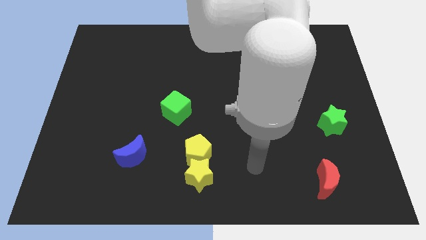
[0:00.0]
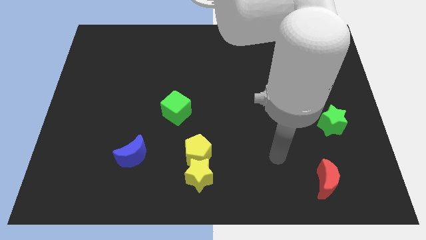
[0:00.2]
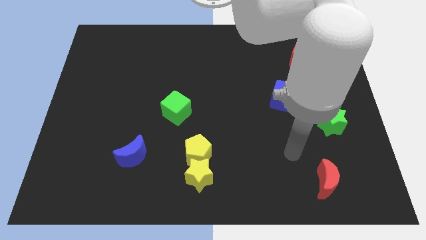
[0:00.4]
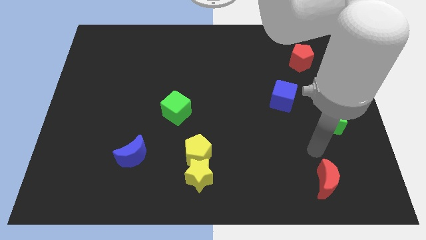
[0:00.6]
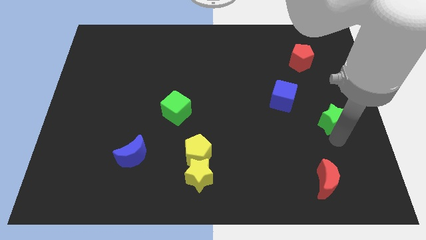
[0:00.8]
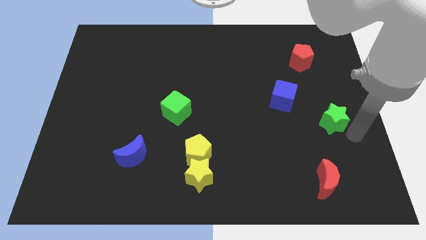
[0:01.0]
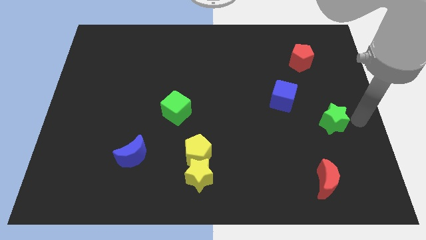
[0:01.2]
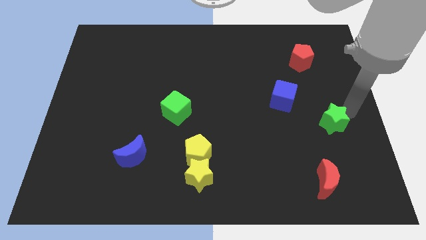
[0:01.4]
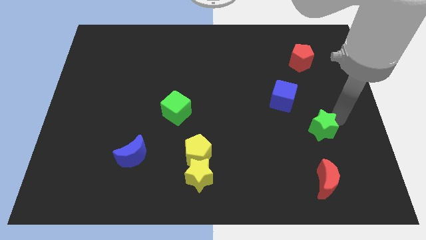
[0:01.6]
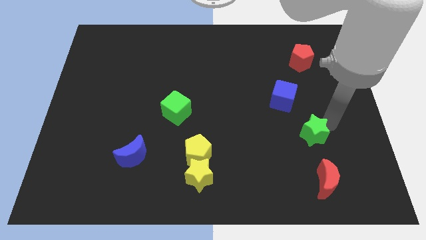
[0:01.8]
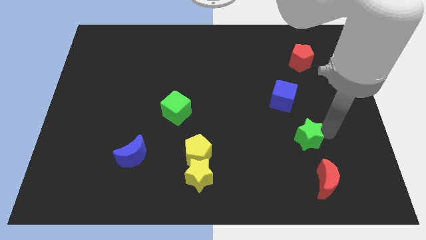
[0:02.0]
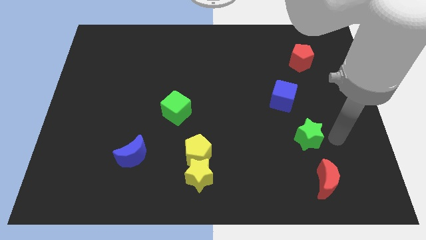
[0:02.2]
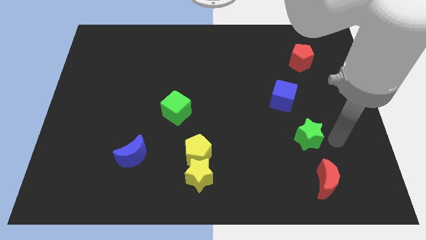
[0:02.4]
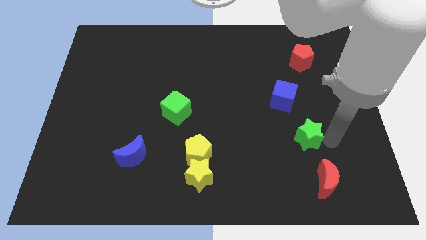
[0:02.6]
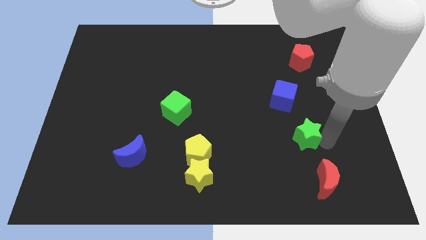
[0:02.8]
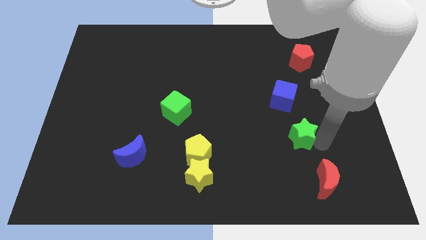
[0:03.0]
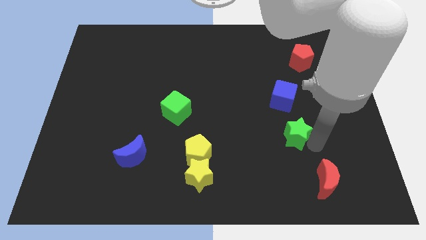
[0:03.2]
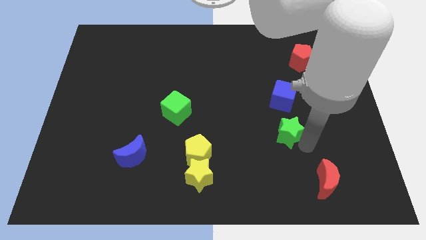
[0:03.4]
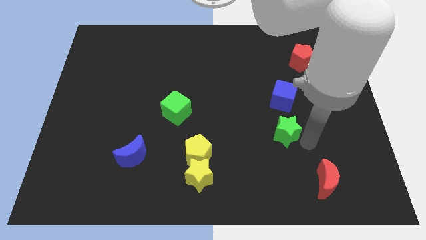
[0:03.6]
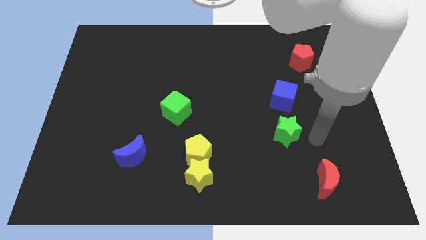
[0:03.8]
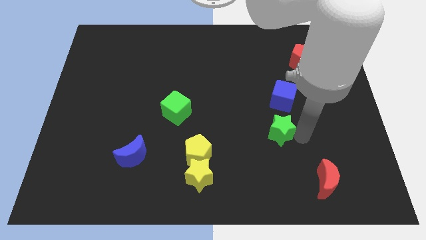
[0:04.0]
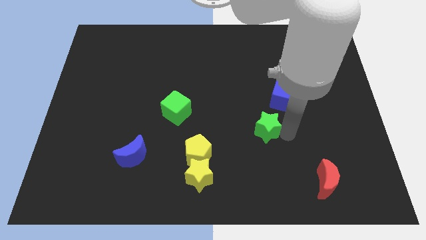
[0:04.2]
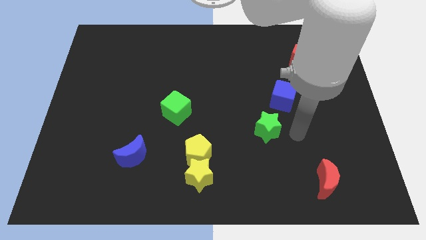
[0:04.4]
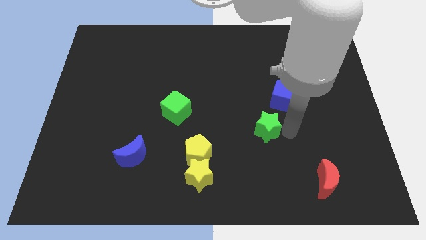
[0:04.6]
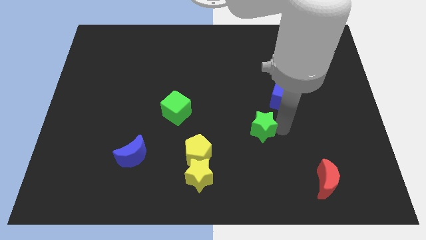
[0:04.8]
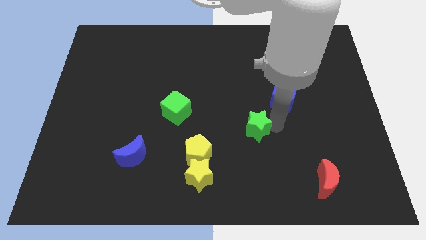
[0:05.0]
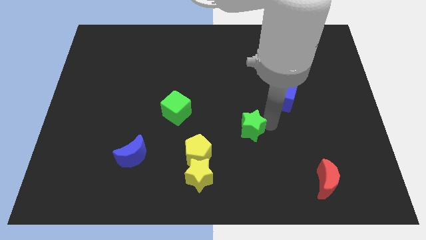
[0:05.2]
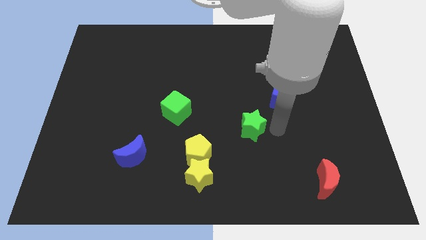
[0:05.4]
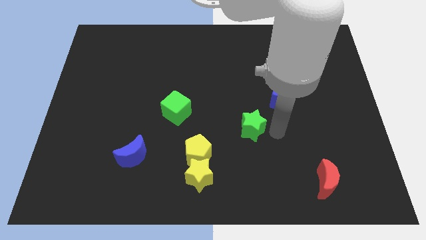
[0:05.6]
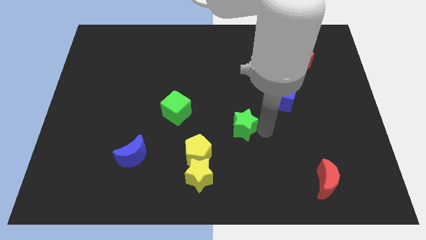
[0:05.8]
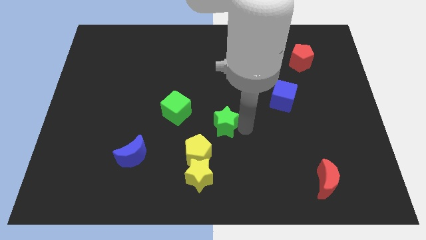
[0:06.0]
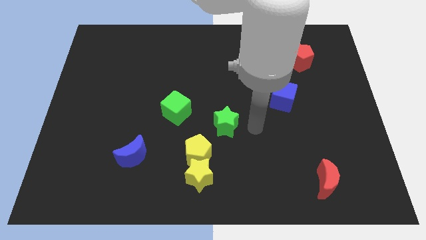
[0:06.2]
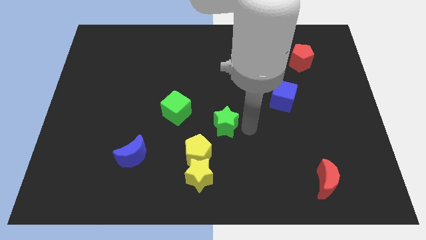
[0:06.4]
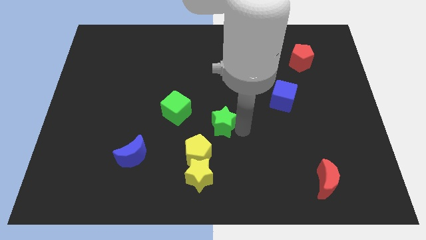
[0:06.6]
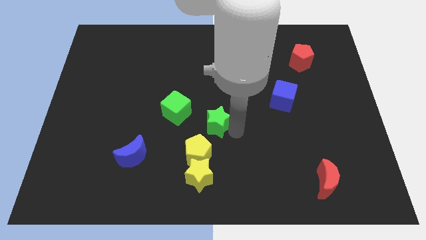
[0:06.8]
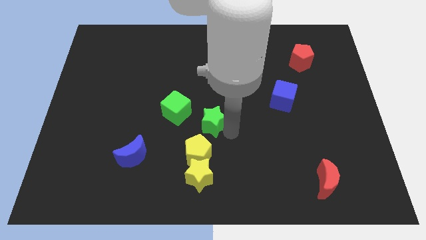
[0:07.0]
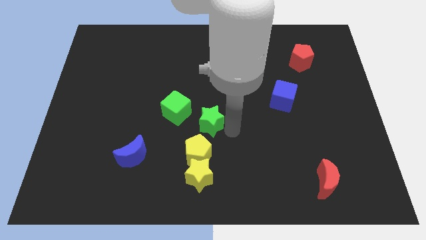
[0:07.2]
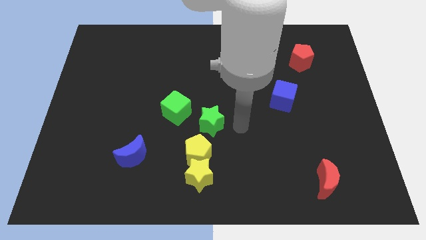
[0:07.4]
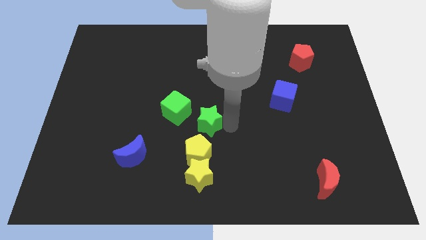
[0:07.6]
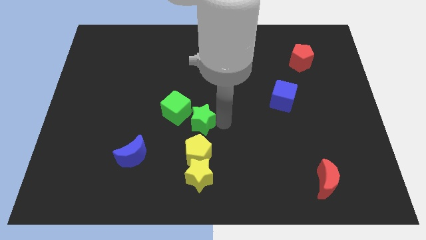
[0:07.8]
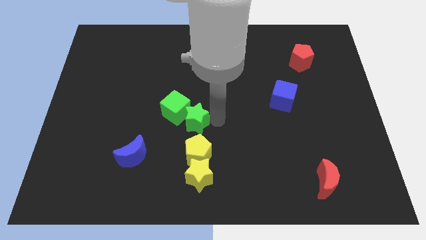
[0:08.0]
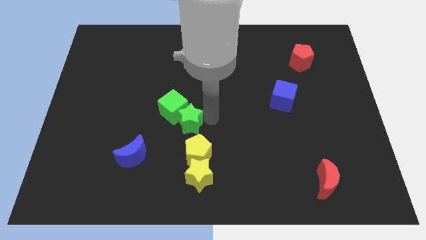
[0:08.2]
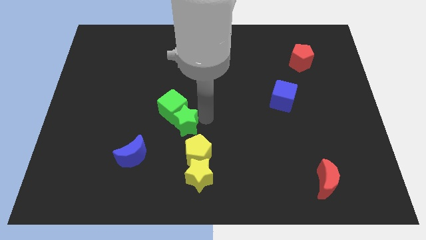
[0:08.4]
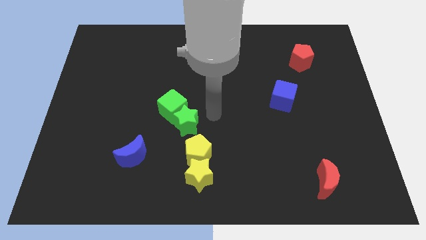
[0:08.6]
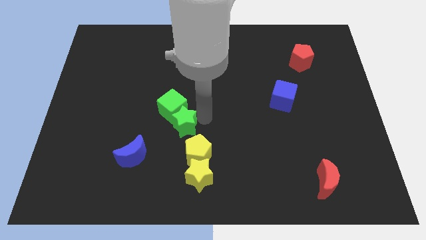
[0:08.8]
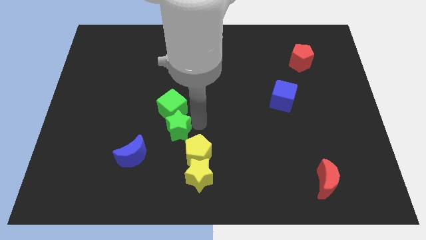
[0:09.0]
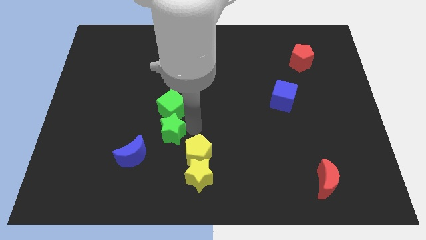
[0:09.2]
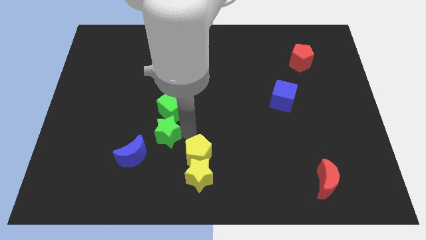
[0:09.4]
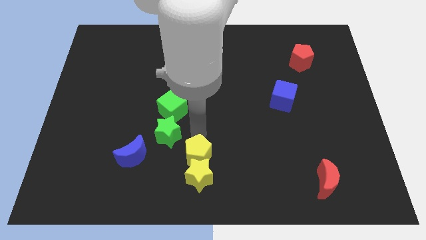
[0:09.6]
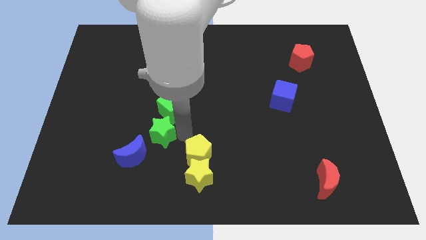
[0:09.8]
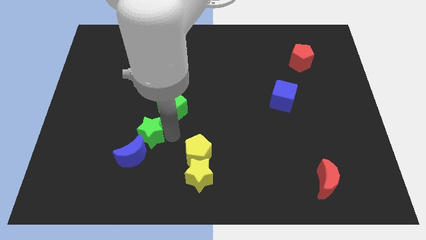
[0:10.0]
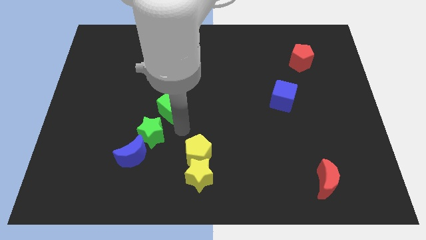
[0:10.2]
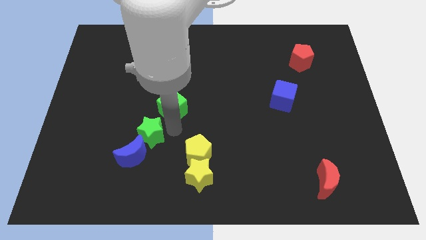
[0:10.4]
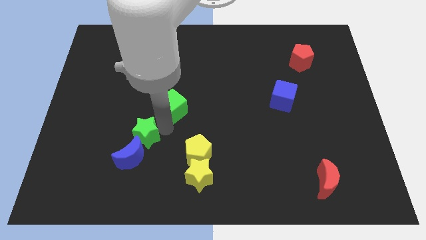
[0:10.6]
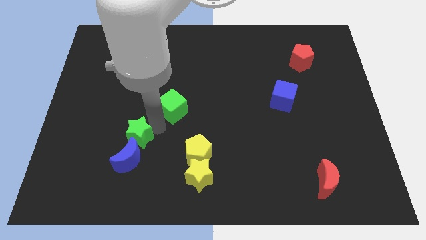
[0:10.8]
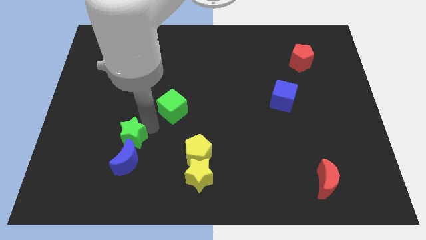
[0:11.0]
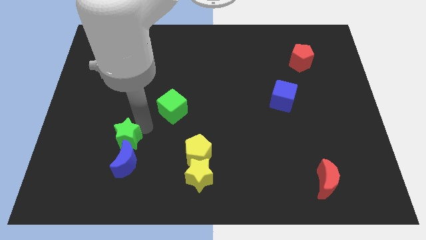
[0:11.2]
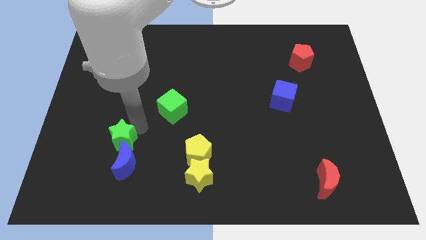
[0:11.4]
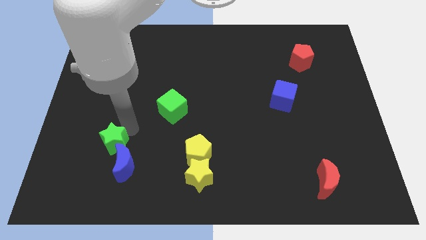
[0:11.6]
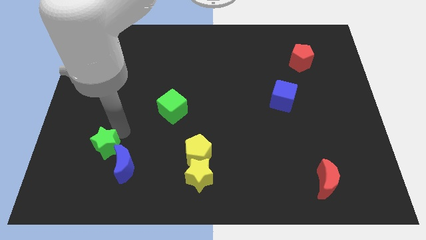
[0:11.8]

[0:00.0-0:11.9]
push the green star to the left side of the blue moon

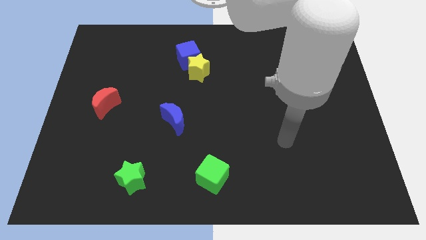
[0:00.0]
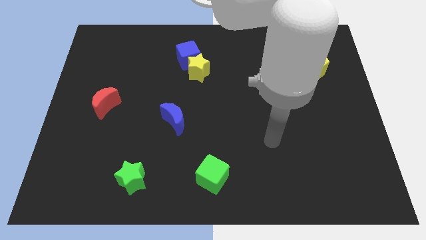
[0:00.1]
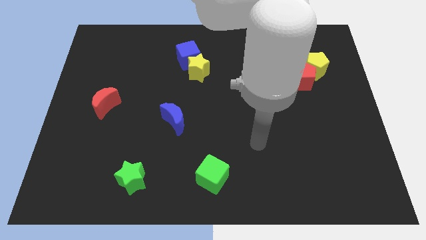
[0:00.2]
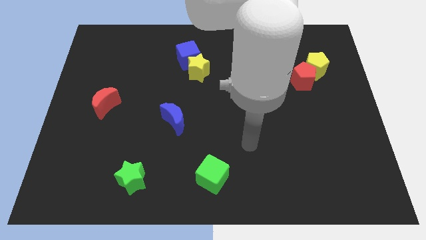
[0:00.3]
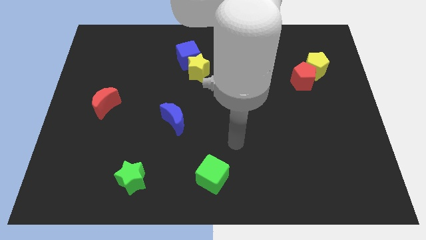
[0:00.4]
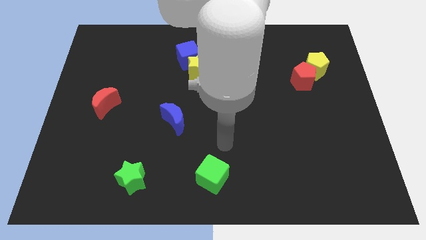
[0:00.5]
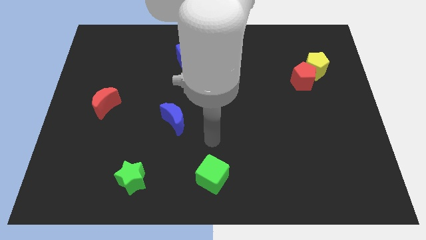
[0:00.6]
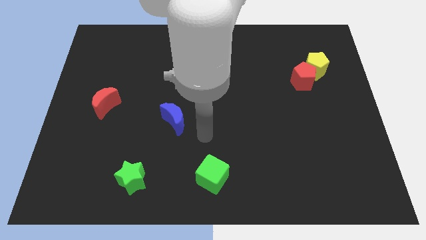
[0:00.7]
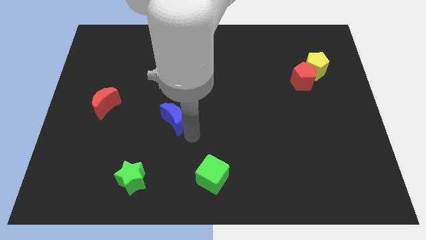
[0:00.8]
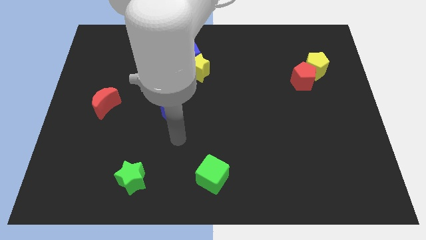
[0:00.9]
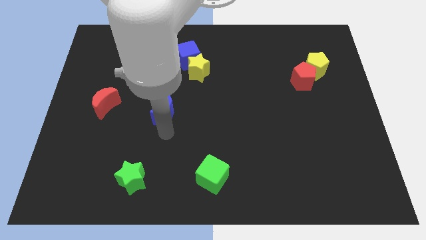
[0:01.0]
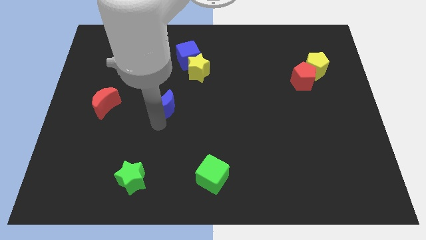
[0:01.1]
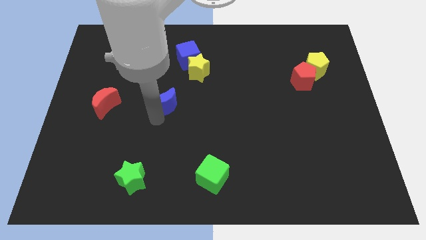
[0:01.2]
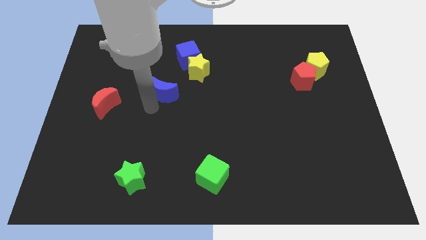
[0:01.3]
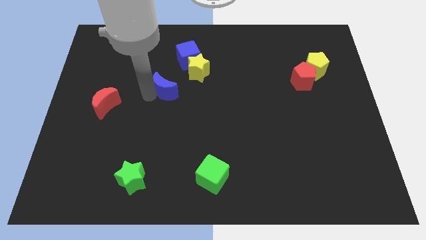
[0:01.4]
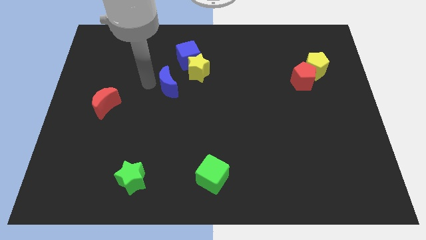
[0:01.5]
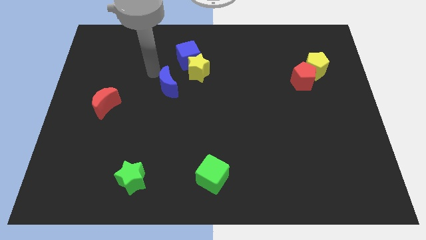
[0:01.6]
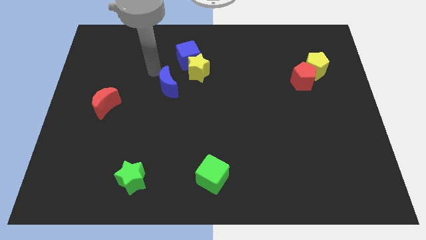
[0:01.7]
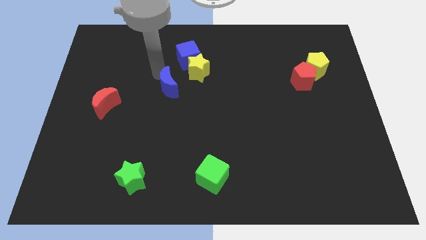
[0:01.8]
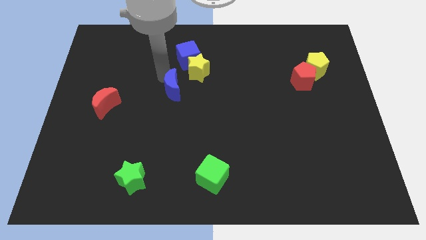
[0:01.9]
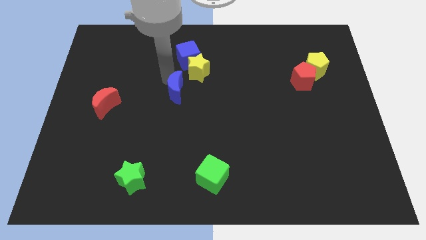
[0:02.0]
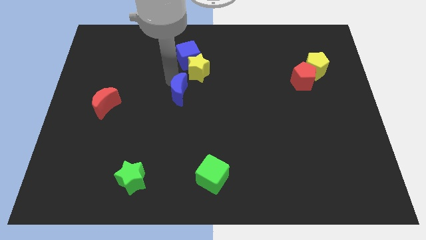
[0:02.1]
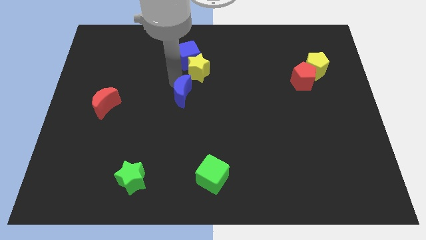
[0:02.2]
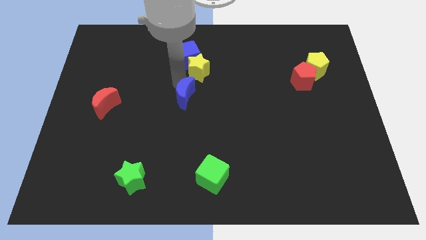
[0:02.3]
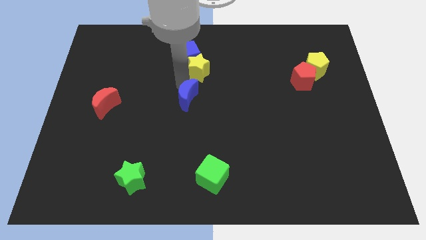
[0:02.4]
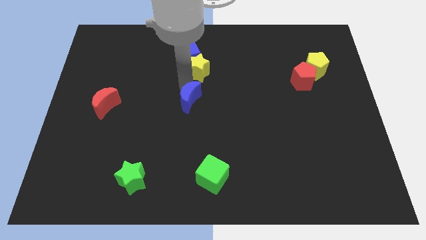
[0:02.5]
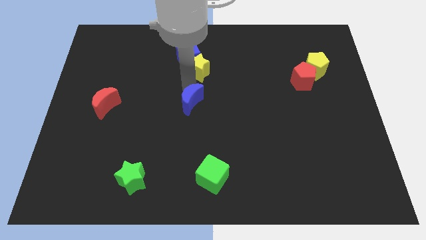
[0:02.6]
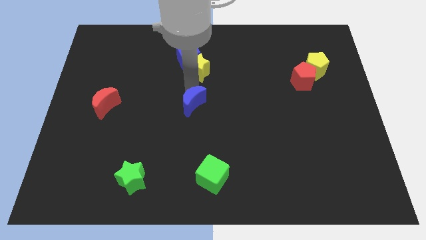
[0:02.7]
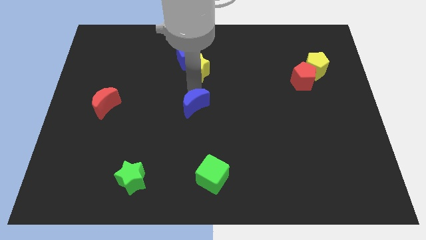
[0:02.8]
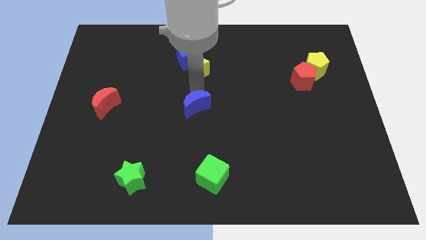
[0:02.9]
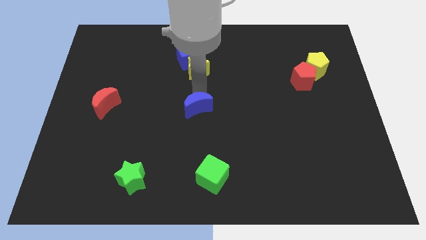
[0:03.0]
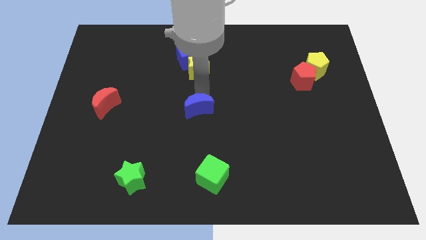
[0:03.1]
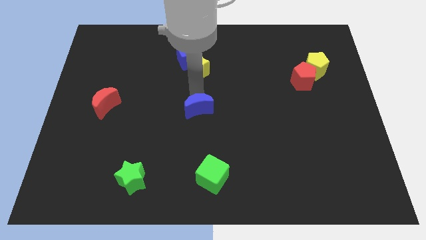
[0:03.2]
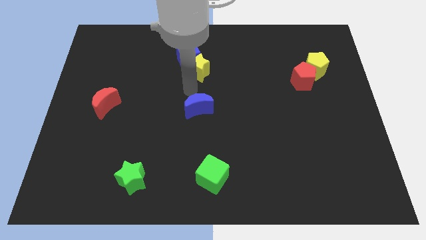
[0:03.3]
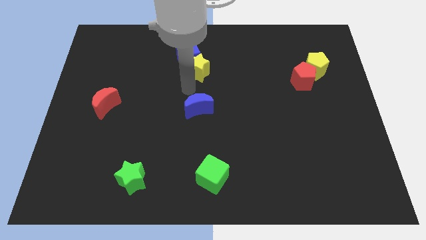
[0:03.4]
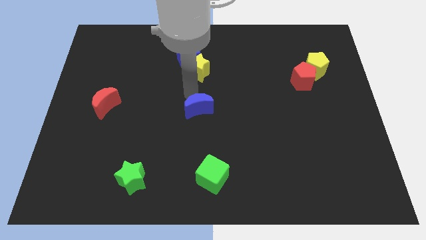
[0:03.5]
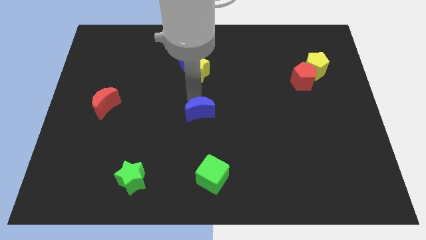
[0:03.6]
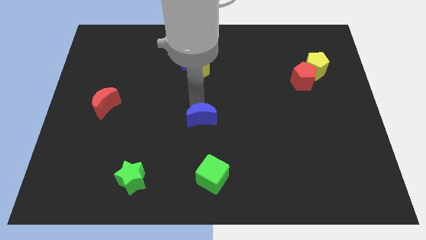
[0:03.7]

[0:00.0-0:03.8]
move the blue moon to the top of the green cube
